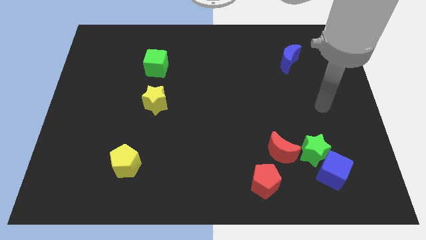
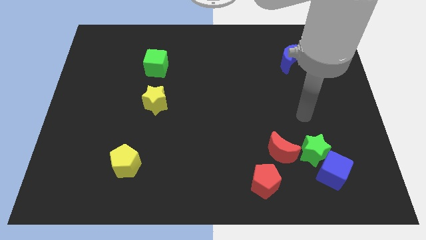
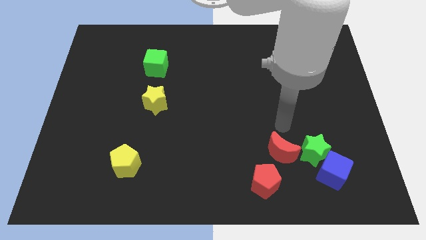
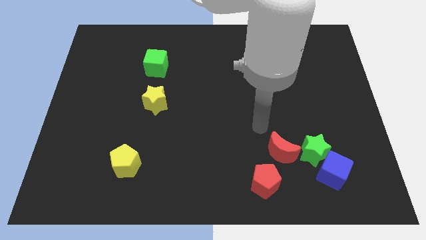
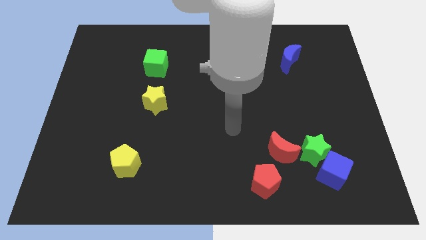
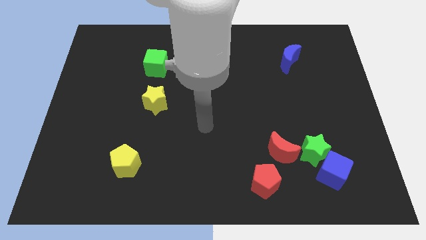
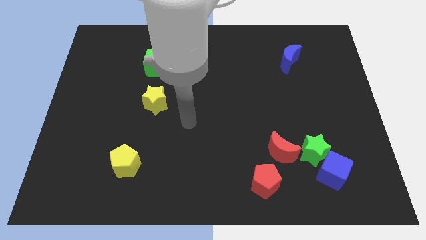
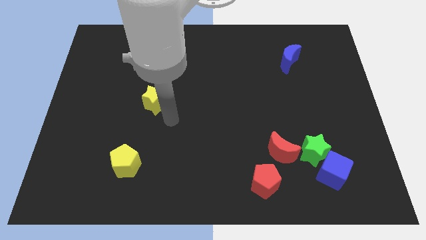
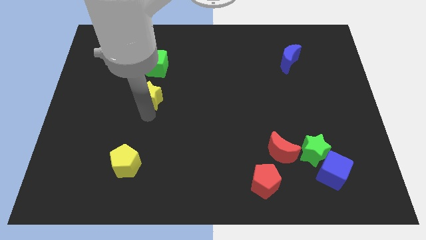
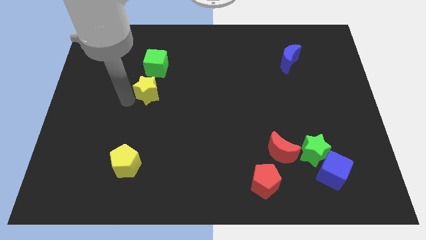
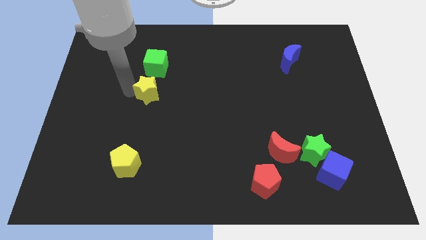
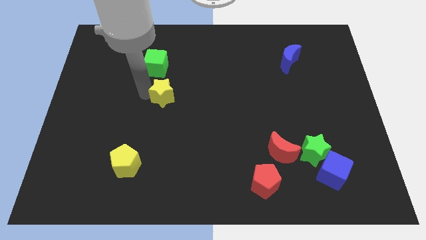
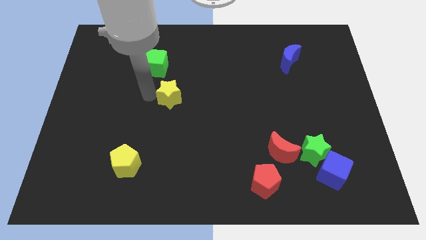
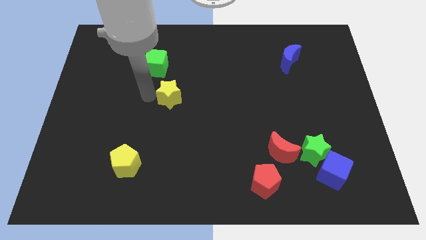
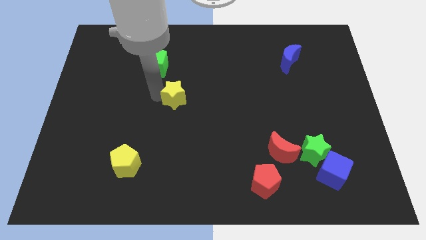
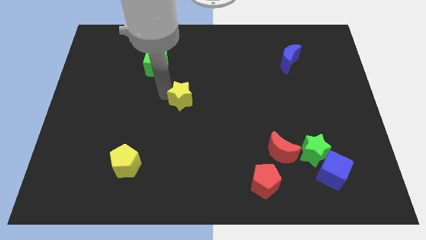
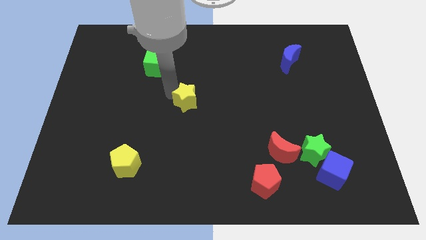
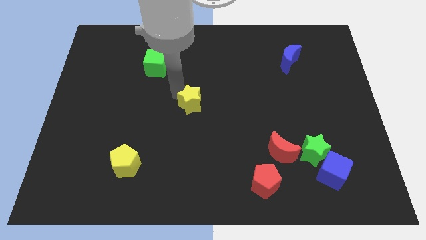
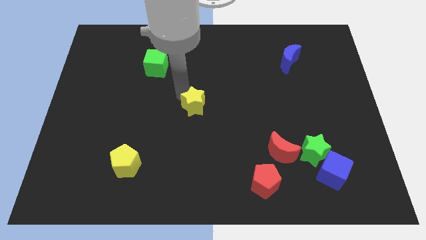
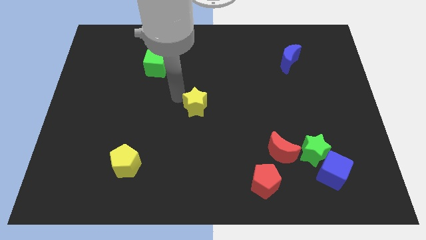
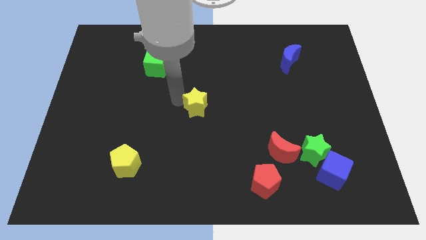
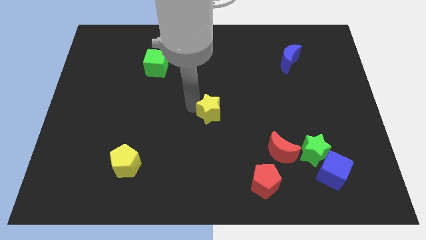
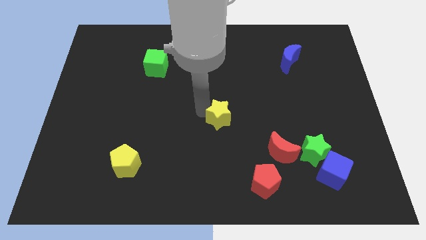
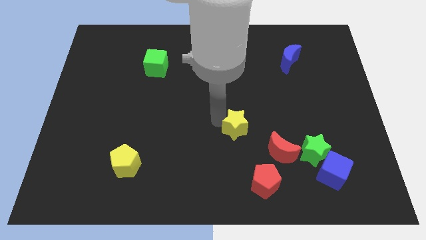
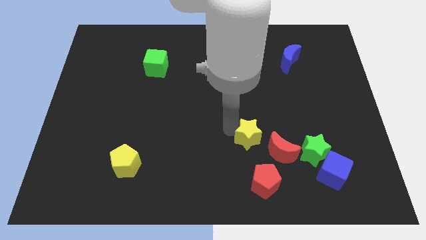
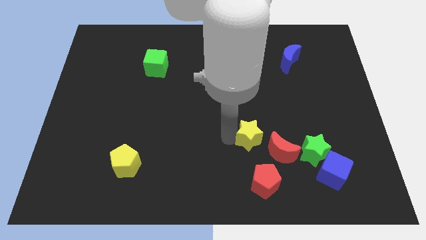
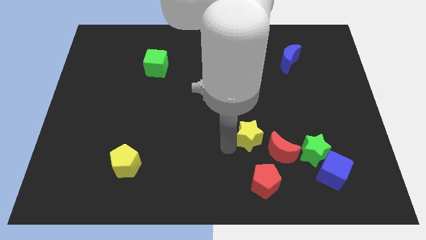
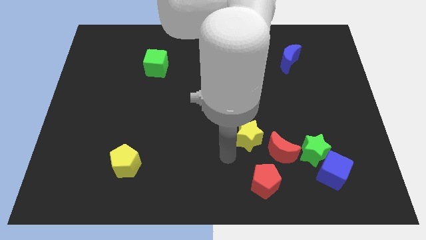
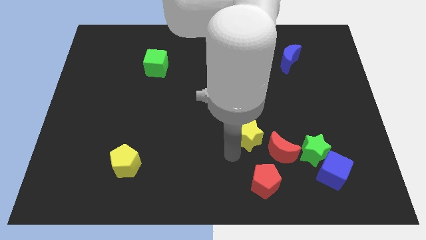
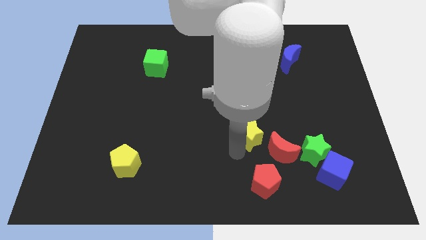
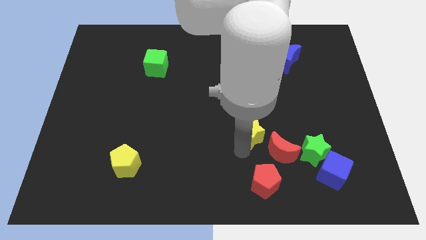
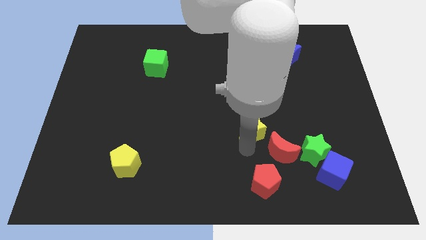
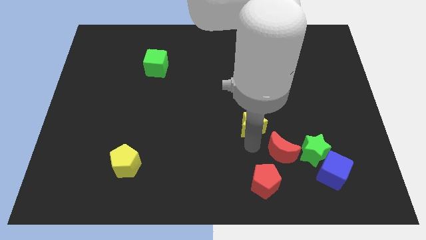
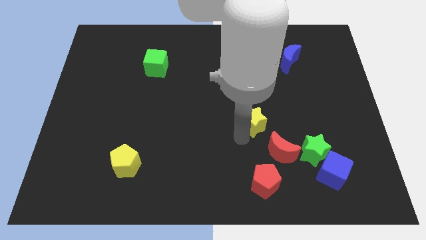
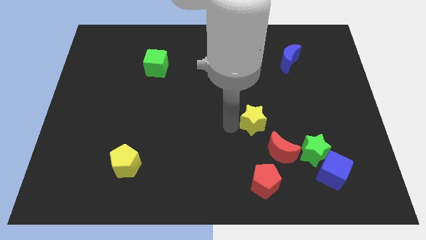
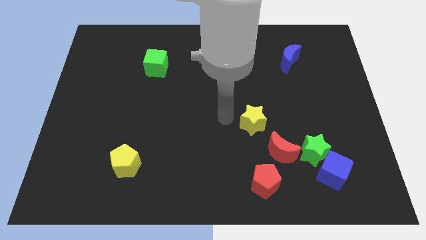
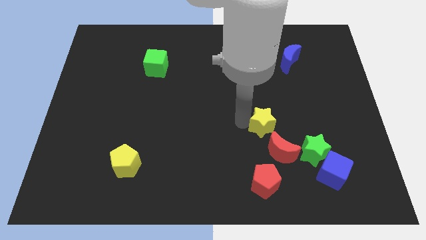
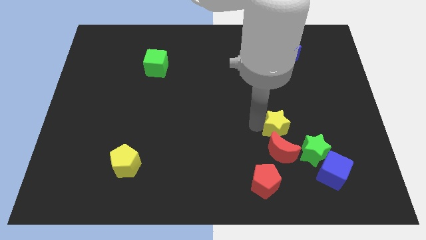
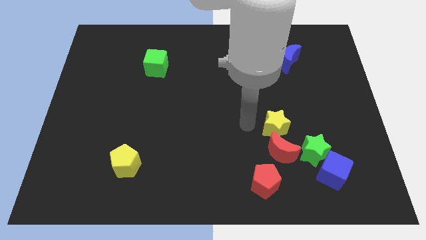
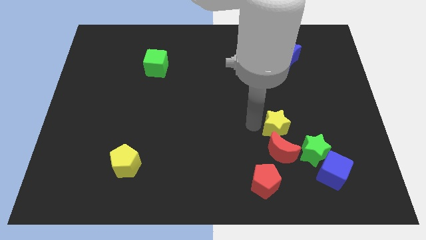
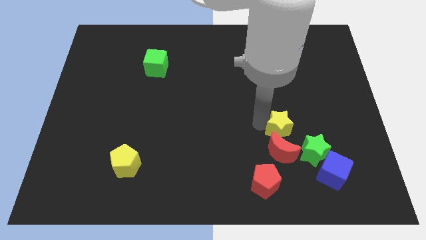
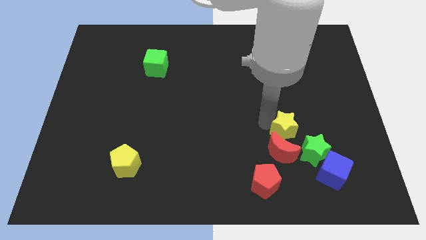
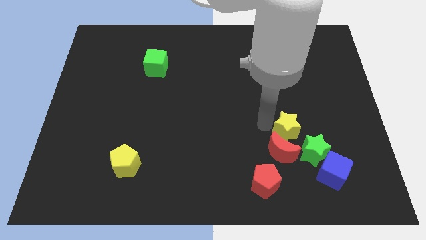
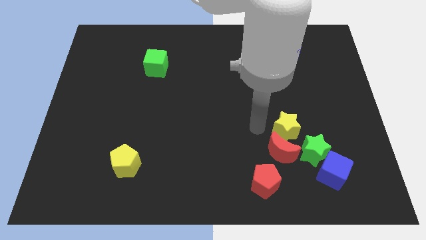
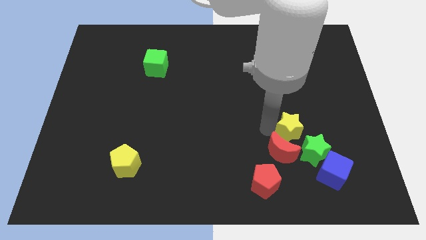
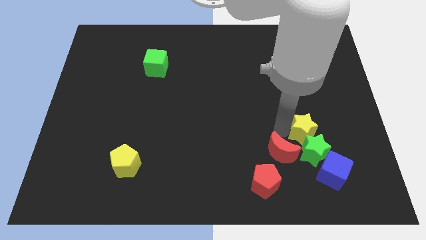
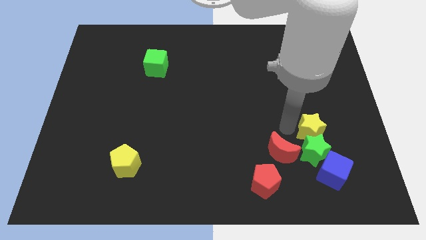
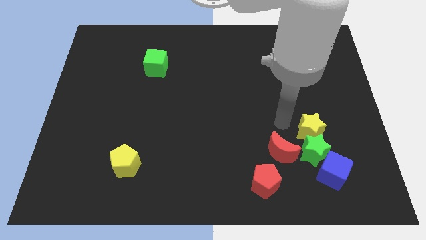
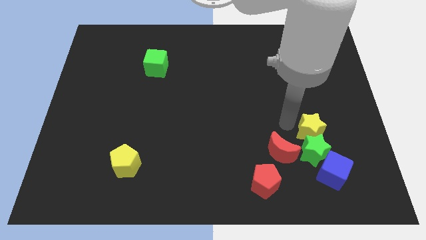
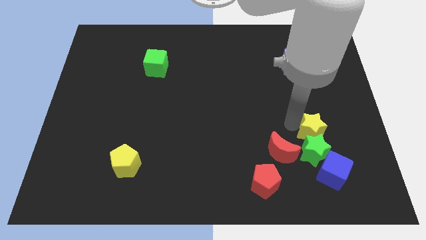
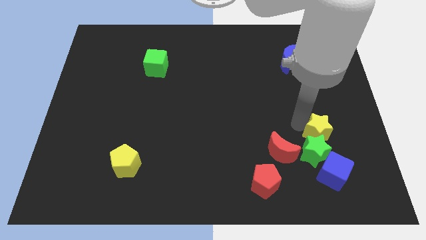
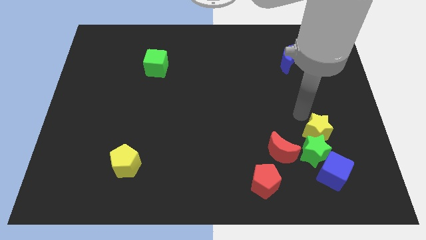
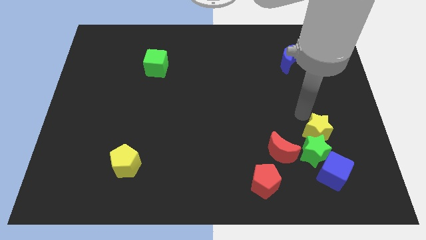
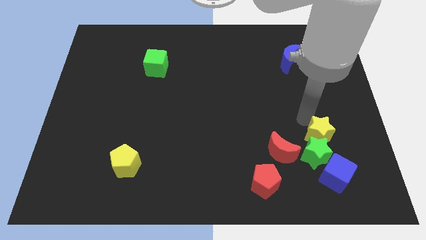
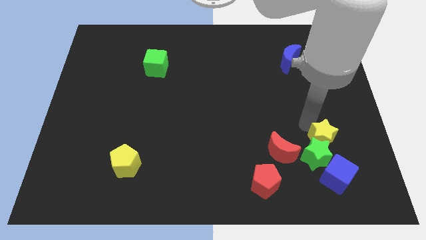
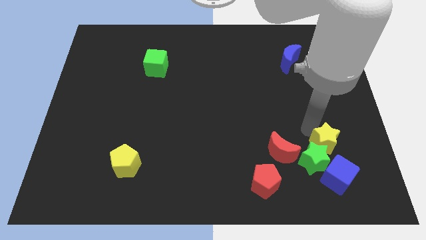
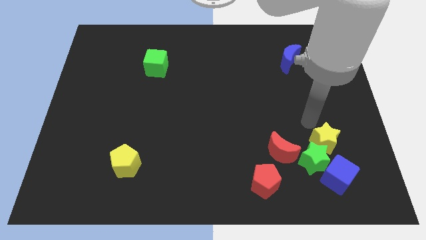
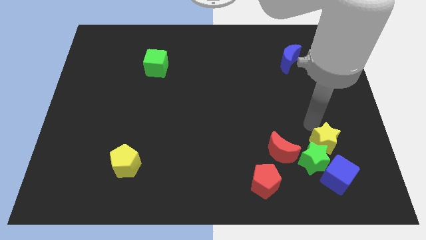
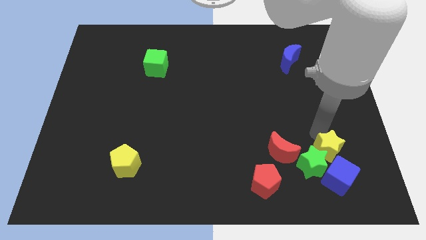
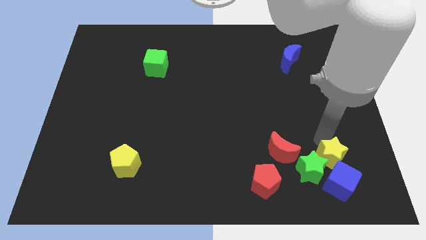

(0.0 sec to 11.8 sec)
move the yellow star to the blue cube

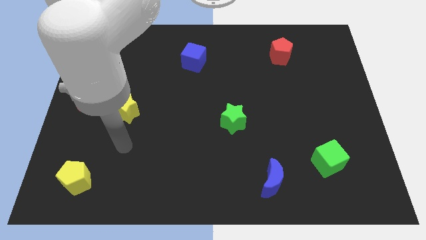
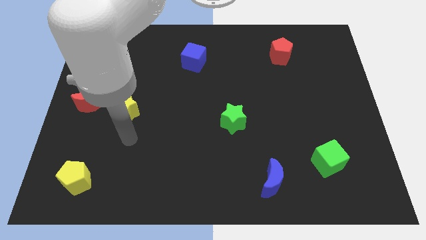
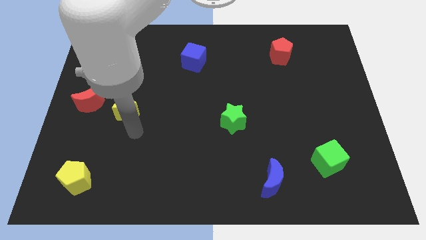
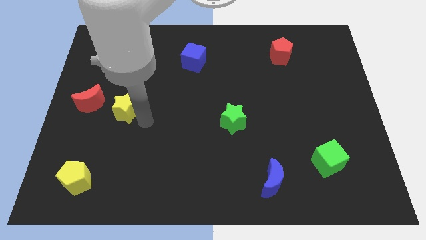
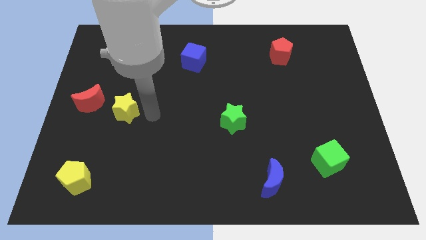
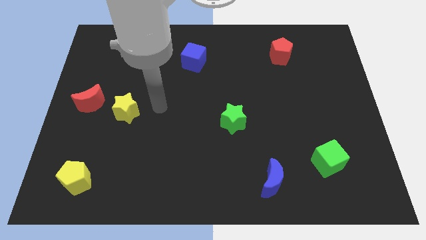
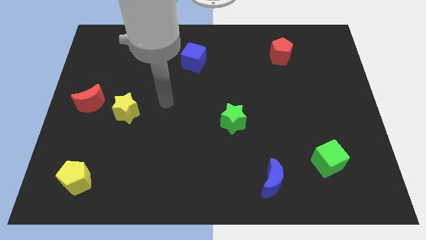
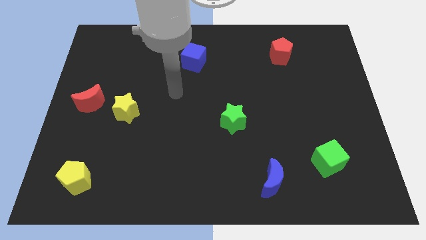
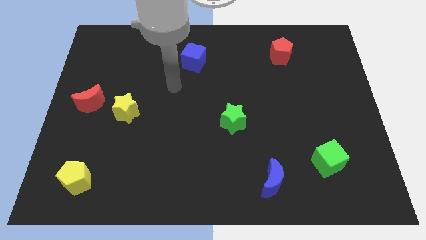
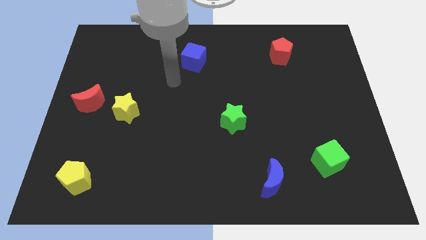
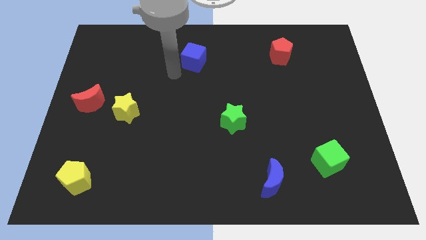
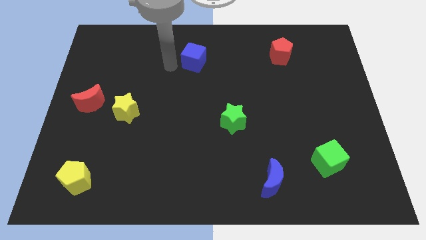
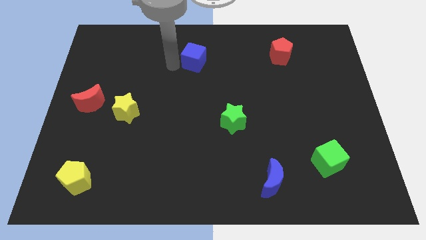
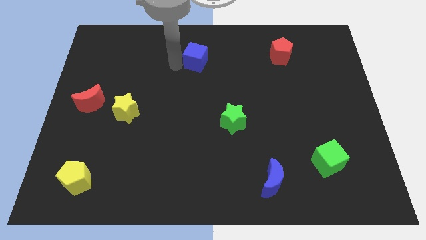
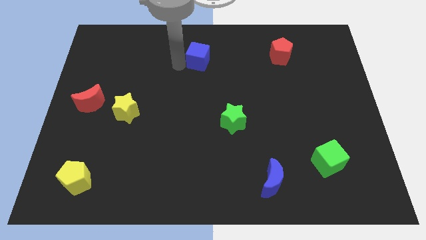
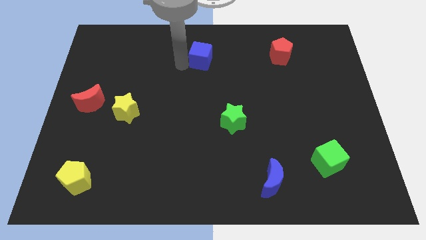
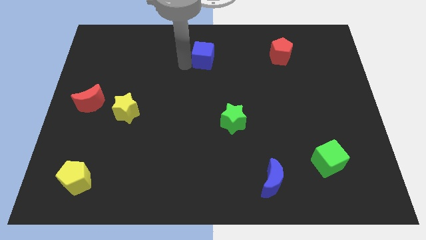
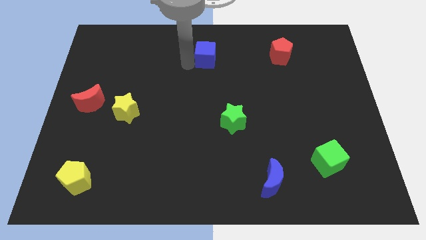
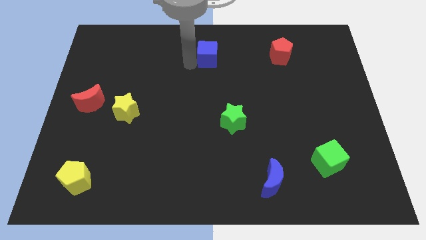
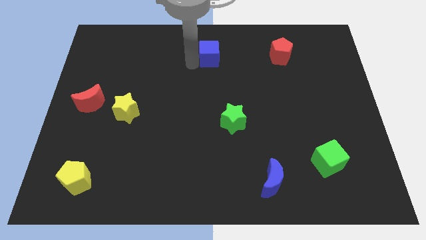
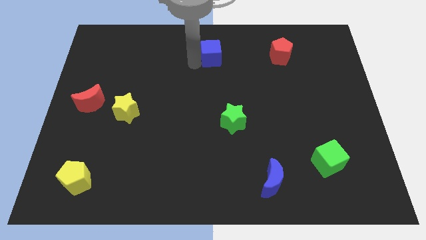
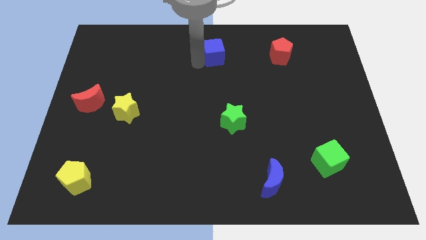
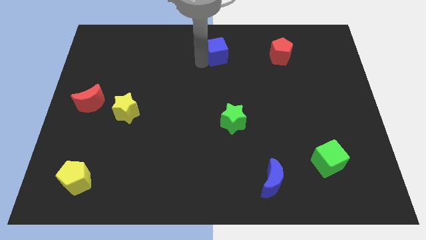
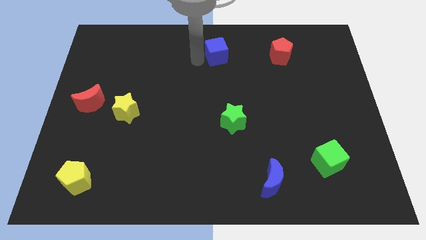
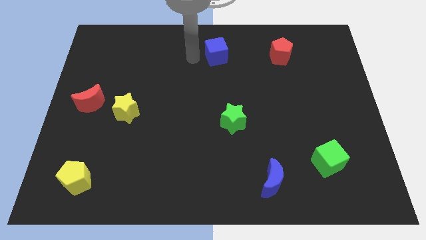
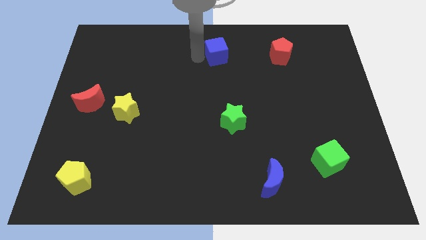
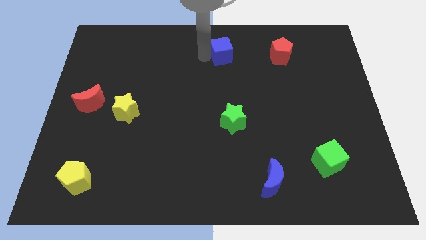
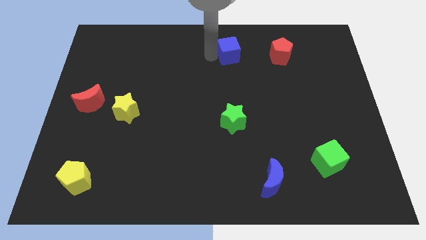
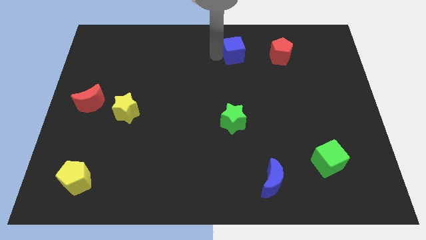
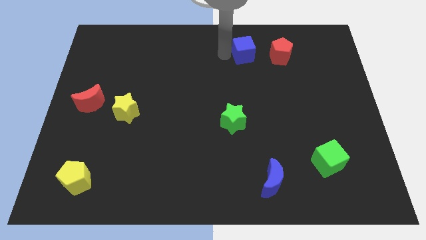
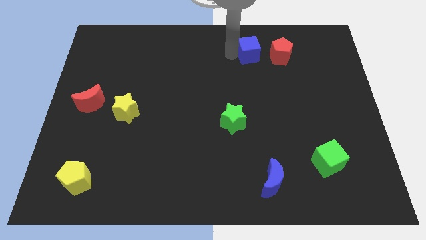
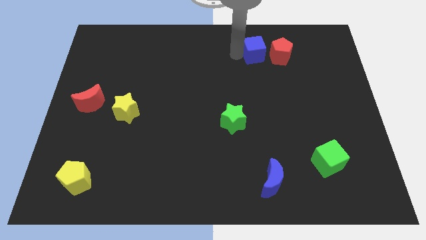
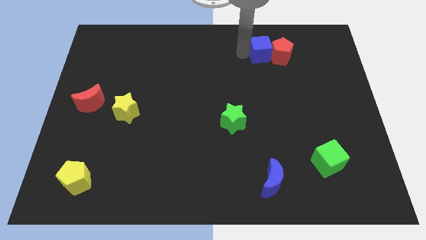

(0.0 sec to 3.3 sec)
put the blue cube towards the red pentagon
